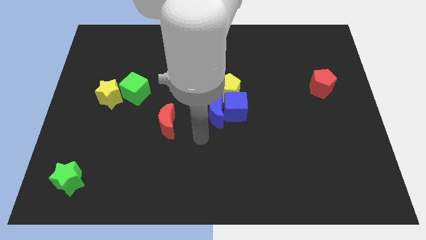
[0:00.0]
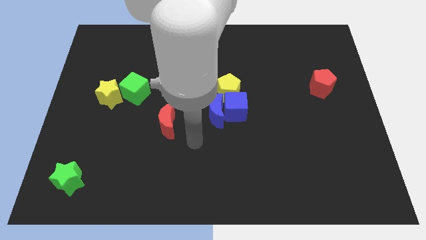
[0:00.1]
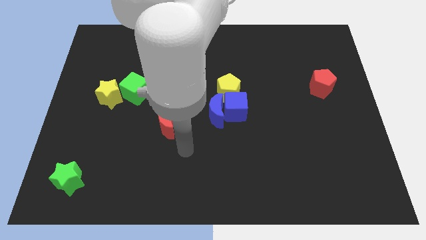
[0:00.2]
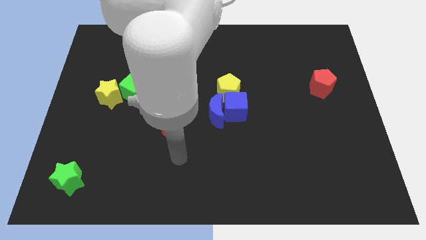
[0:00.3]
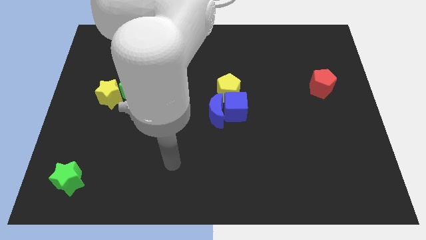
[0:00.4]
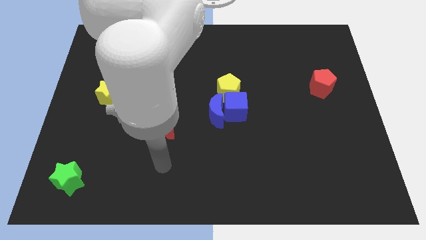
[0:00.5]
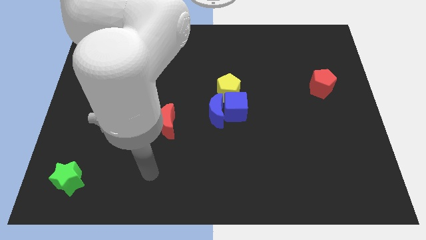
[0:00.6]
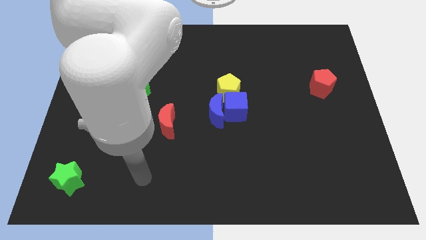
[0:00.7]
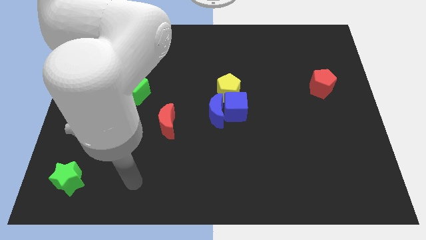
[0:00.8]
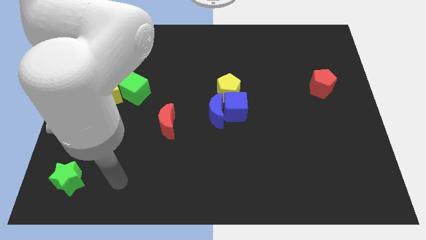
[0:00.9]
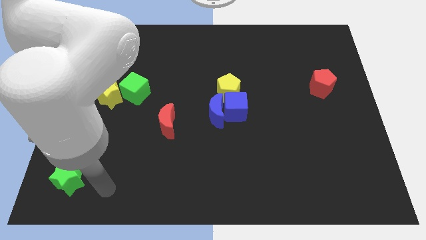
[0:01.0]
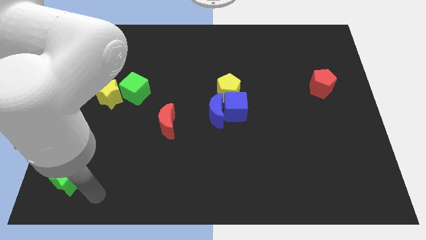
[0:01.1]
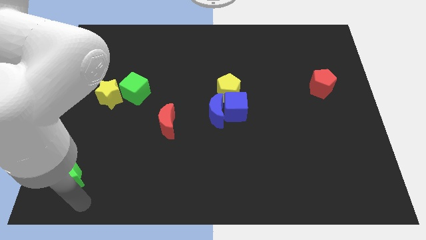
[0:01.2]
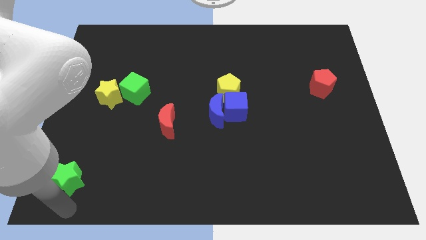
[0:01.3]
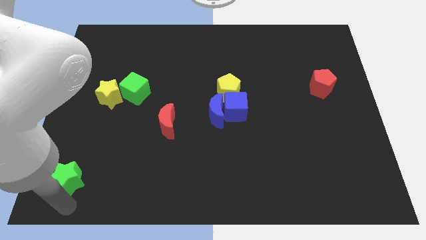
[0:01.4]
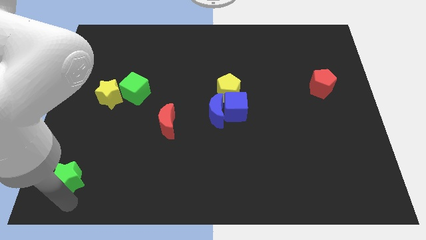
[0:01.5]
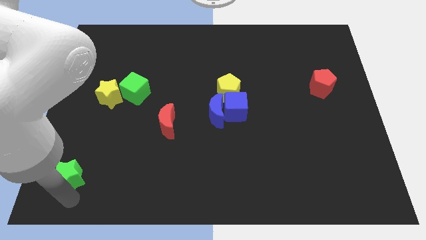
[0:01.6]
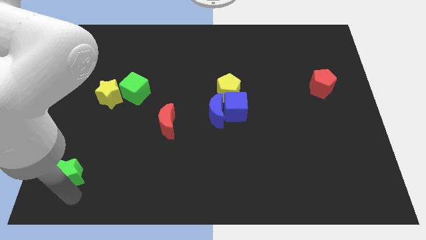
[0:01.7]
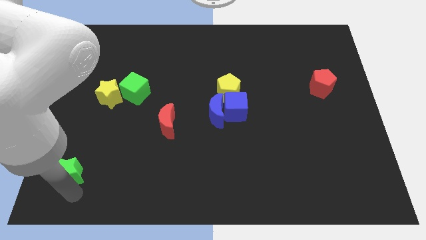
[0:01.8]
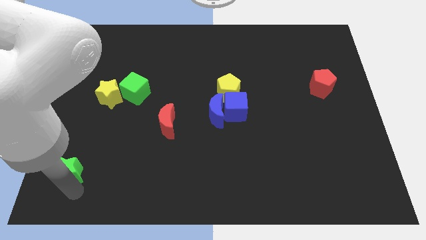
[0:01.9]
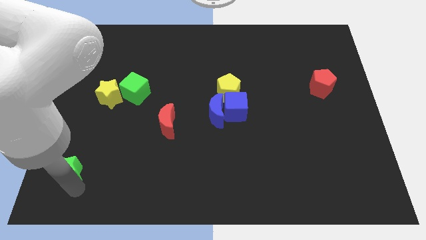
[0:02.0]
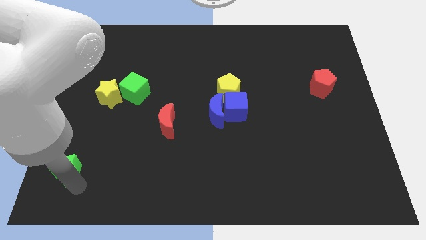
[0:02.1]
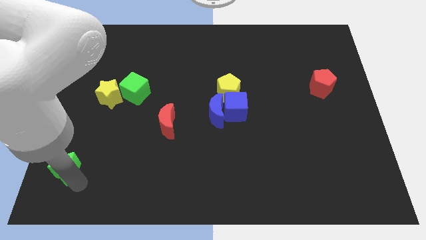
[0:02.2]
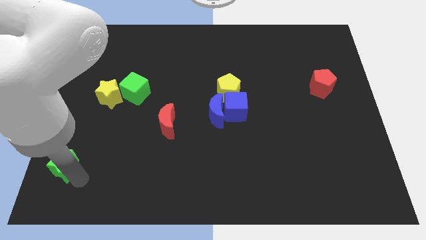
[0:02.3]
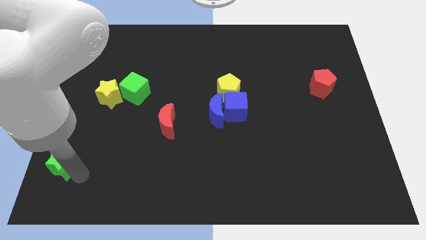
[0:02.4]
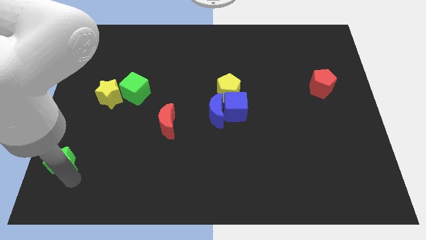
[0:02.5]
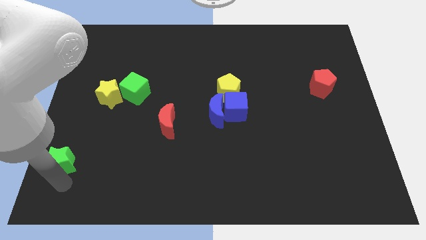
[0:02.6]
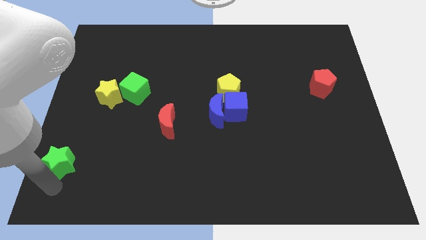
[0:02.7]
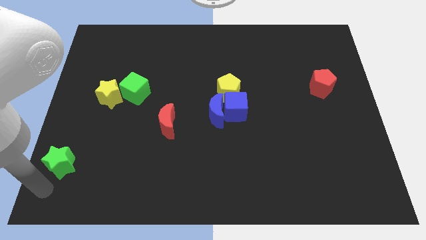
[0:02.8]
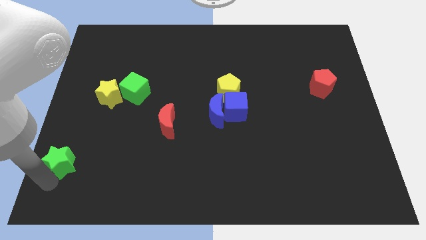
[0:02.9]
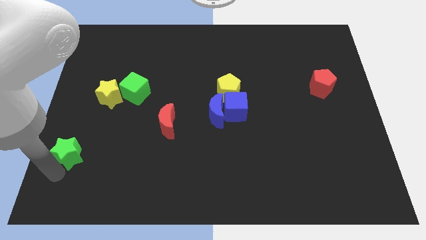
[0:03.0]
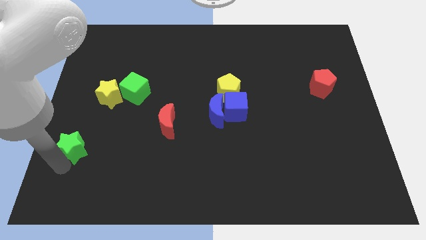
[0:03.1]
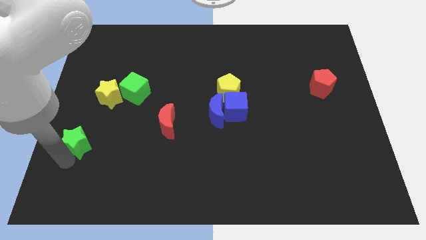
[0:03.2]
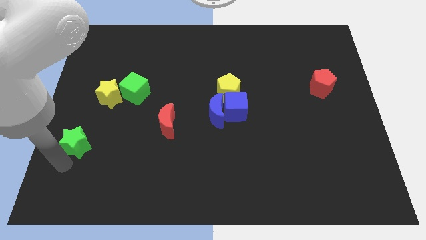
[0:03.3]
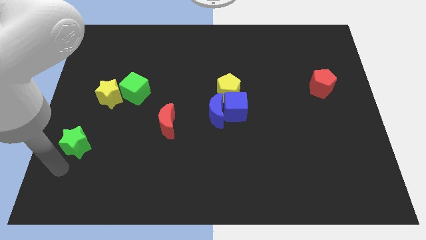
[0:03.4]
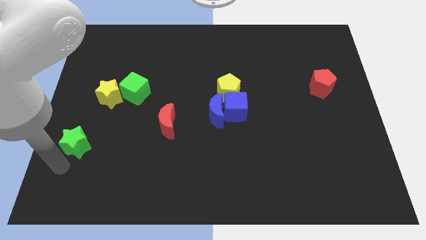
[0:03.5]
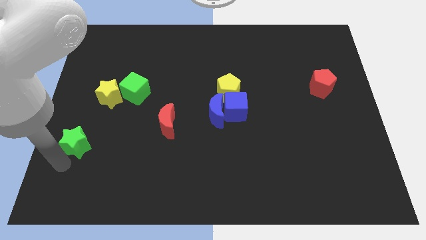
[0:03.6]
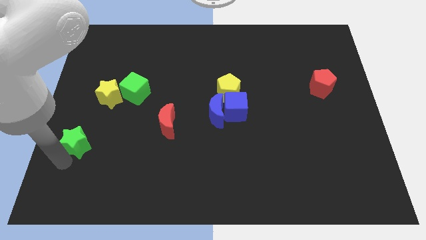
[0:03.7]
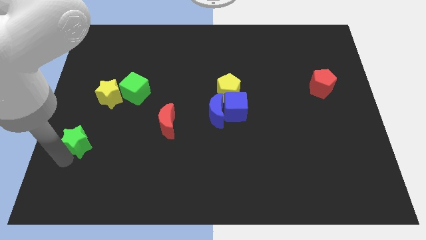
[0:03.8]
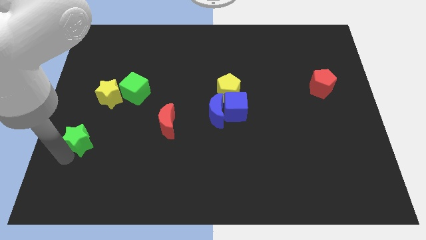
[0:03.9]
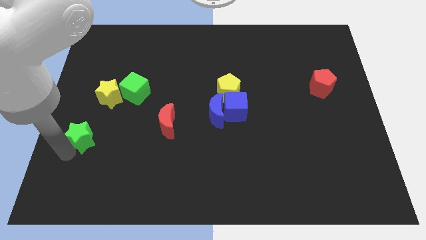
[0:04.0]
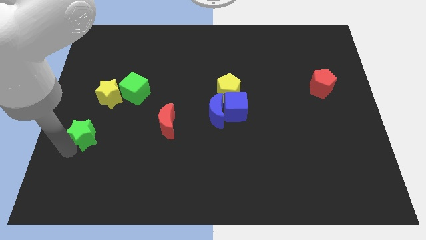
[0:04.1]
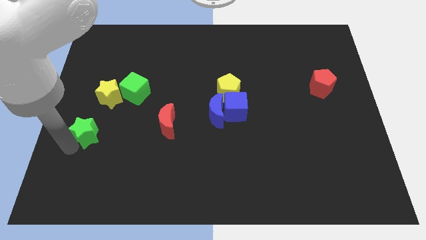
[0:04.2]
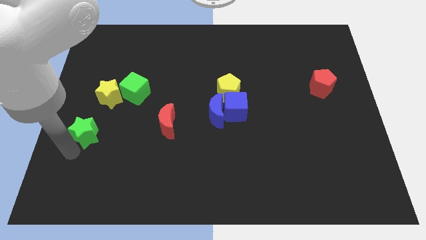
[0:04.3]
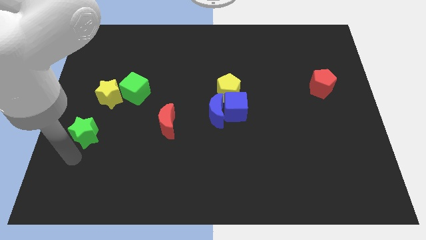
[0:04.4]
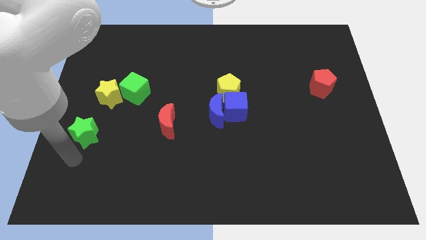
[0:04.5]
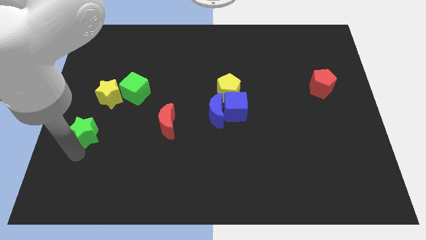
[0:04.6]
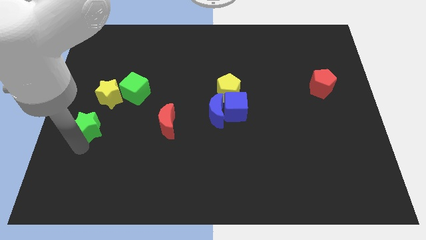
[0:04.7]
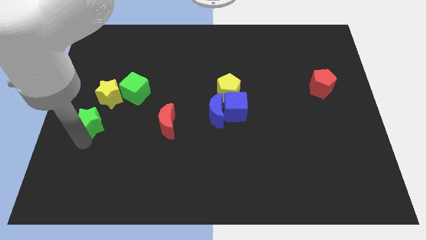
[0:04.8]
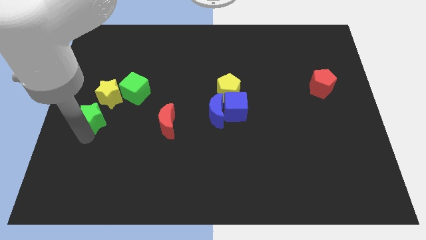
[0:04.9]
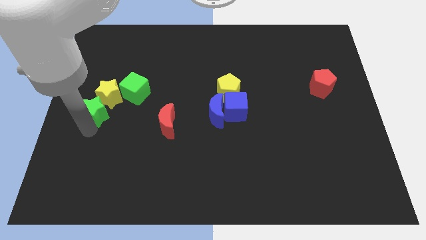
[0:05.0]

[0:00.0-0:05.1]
push the green star towards the yellow star

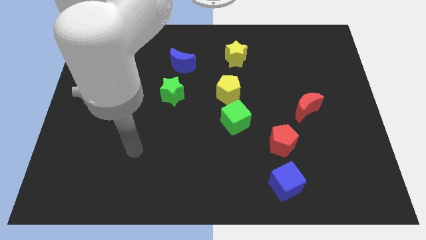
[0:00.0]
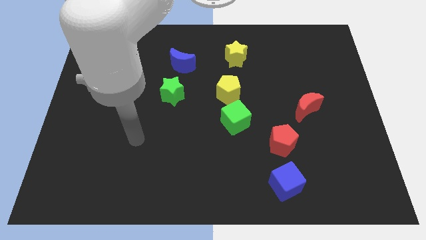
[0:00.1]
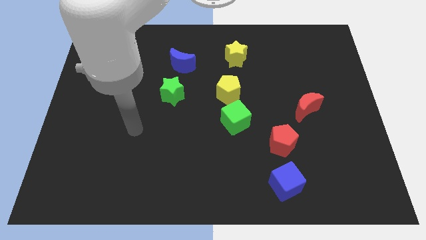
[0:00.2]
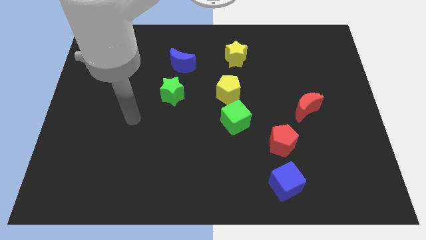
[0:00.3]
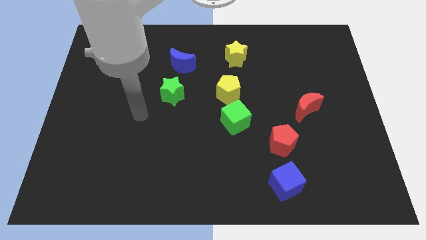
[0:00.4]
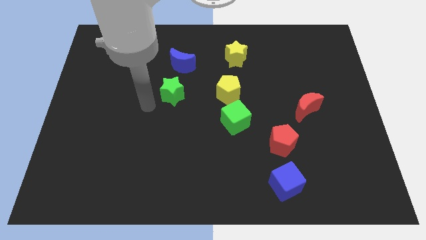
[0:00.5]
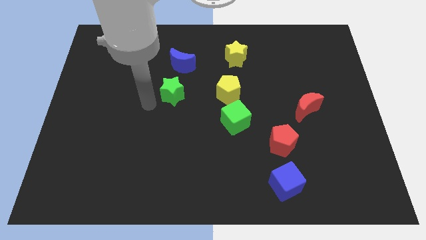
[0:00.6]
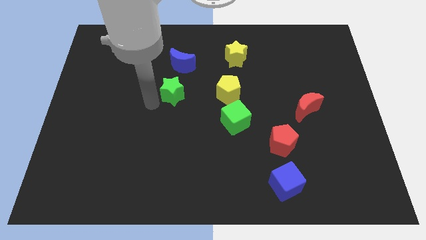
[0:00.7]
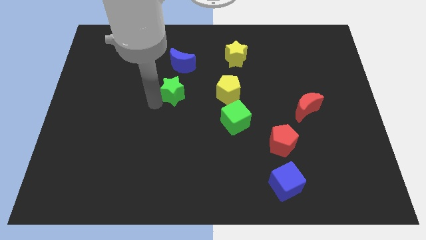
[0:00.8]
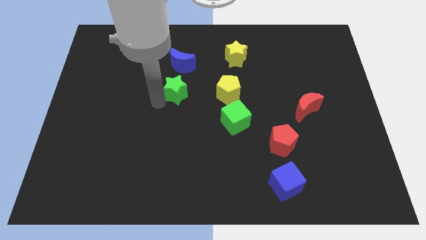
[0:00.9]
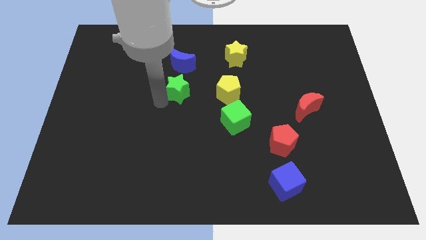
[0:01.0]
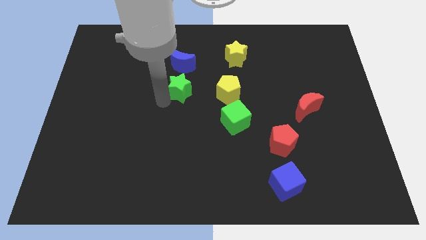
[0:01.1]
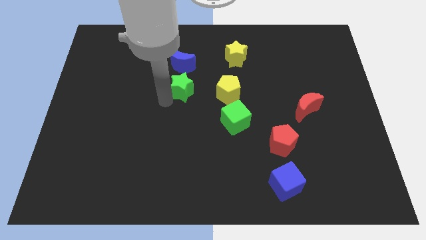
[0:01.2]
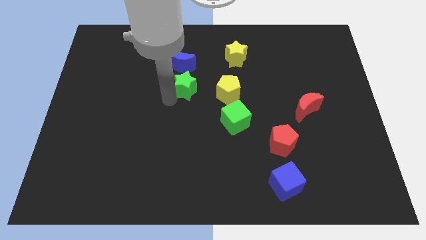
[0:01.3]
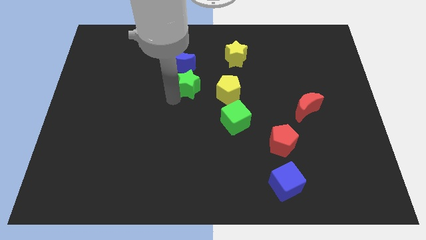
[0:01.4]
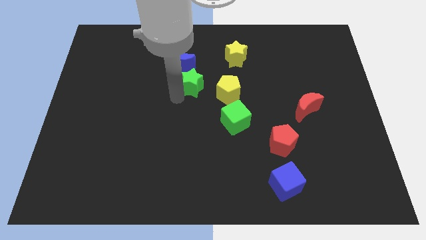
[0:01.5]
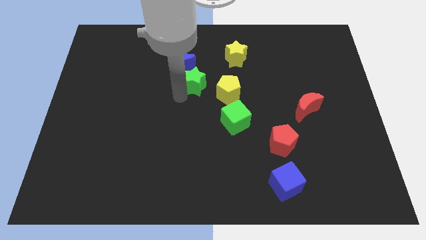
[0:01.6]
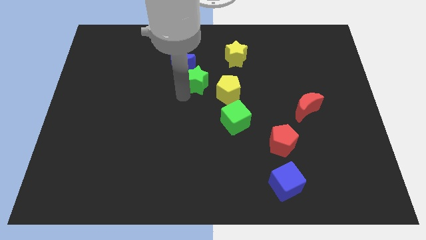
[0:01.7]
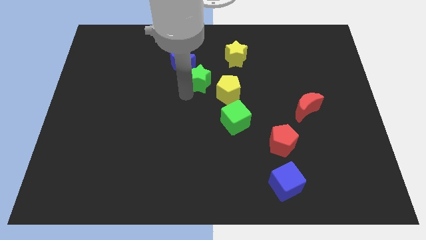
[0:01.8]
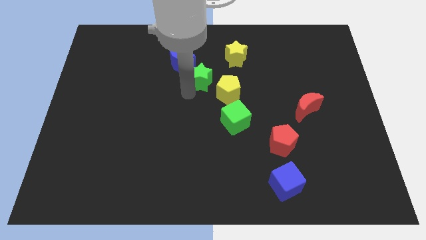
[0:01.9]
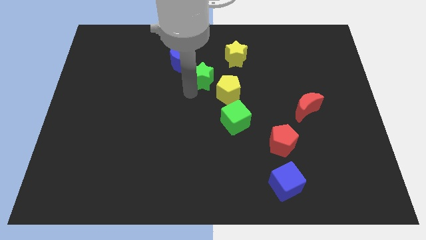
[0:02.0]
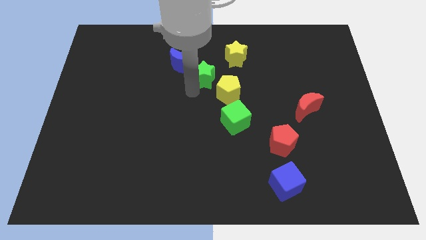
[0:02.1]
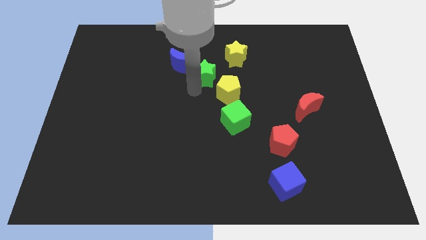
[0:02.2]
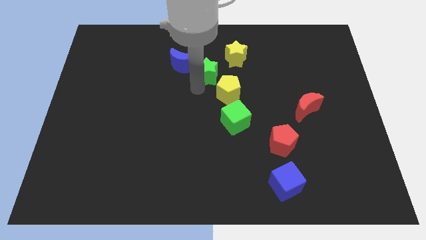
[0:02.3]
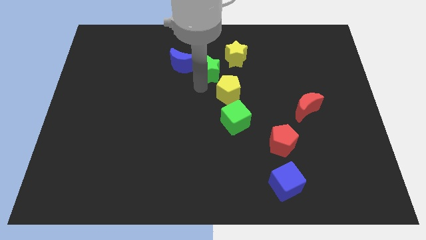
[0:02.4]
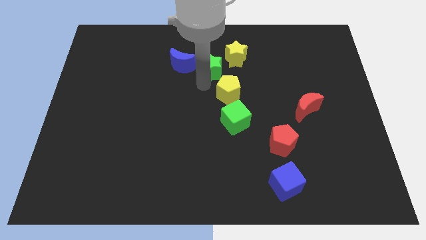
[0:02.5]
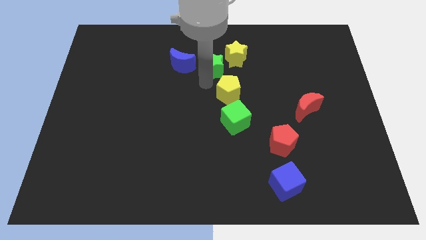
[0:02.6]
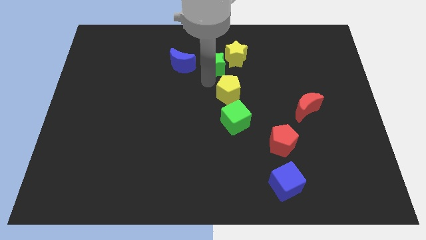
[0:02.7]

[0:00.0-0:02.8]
put the green star towards the yellow star
